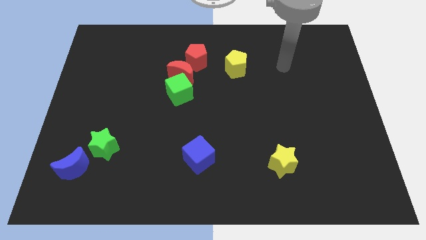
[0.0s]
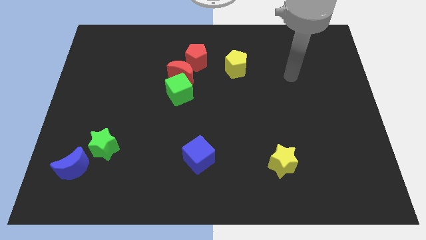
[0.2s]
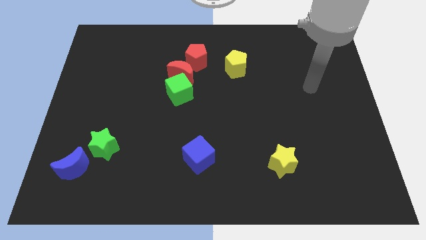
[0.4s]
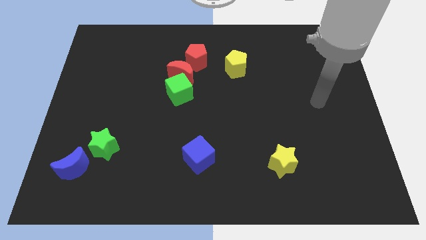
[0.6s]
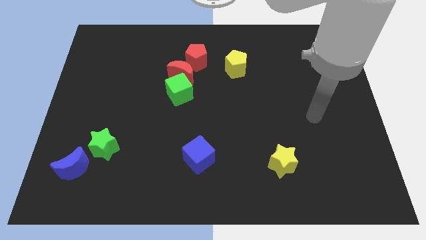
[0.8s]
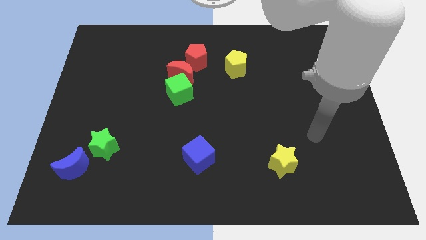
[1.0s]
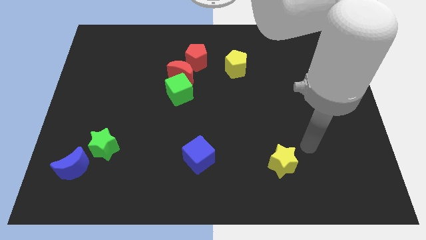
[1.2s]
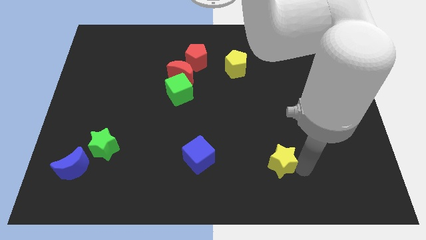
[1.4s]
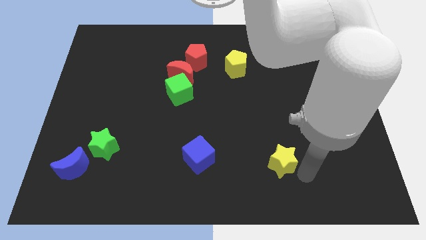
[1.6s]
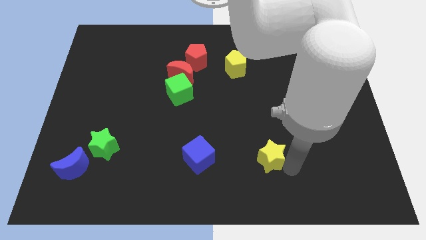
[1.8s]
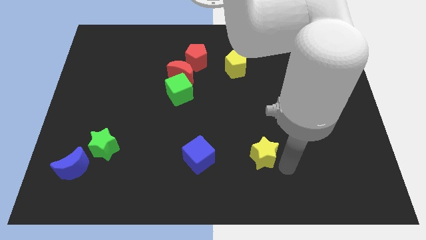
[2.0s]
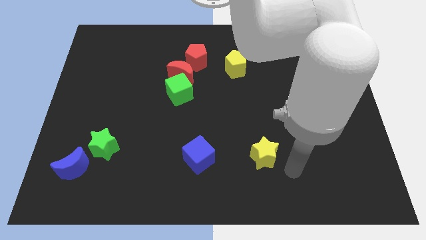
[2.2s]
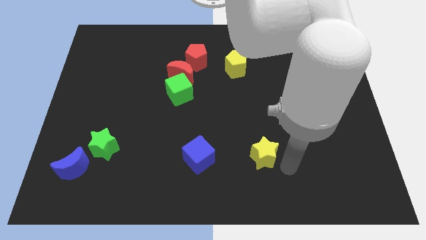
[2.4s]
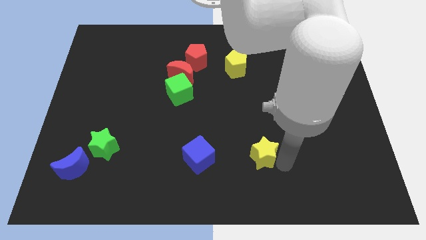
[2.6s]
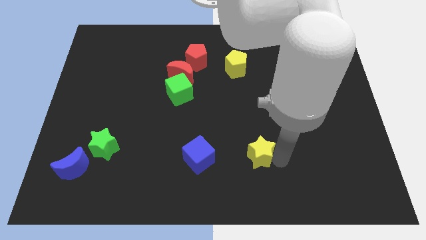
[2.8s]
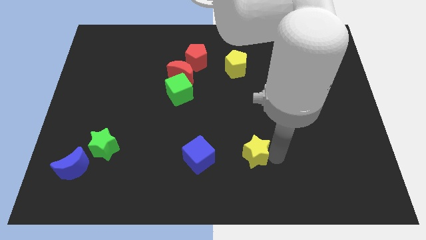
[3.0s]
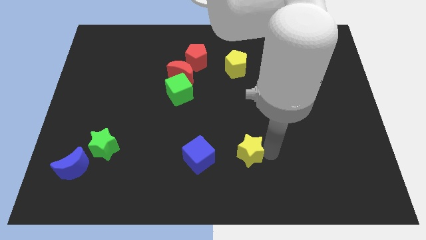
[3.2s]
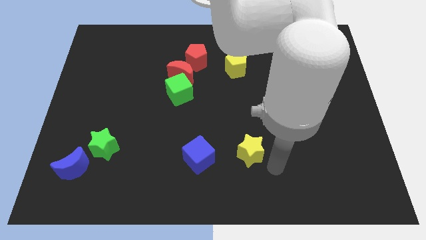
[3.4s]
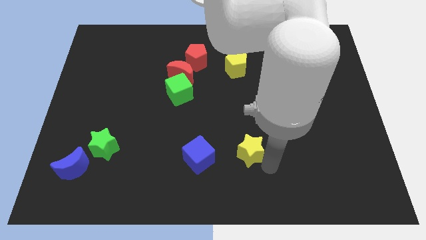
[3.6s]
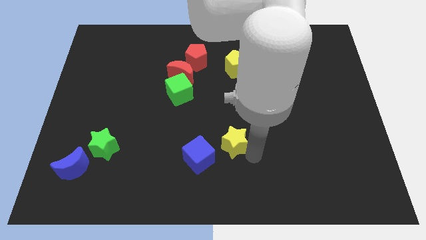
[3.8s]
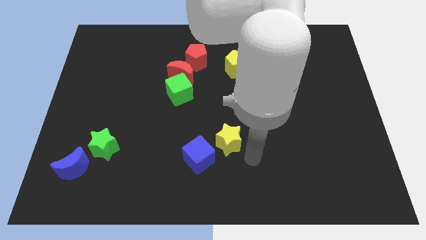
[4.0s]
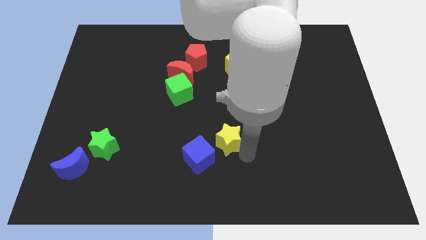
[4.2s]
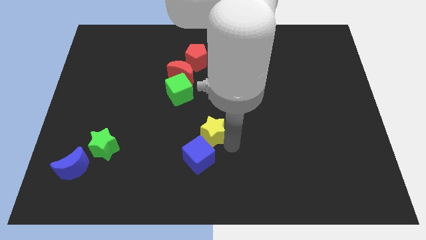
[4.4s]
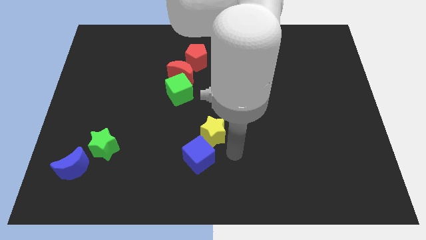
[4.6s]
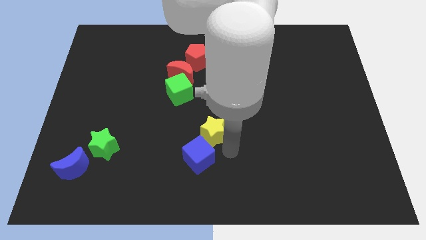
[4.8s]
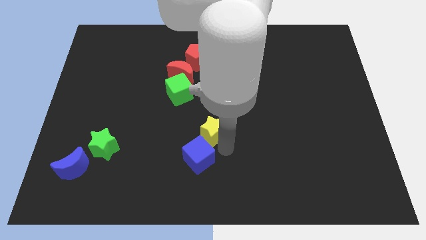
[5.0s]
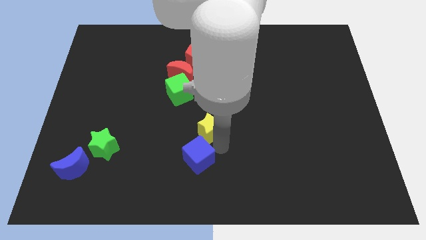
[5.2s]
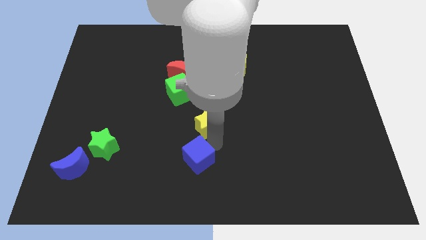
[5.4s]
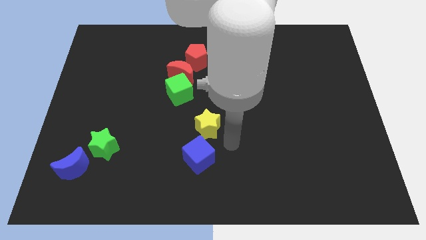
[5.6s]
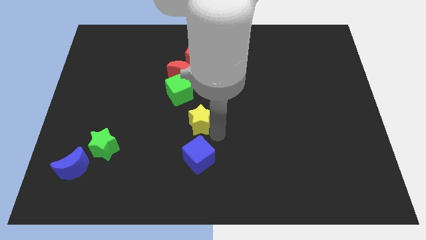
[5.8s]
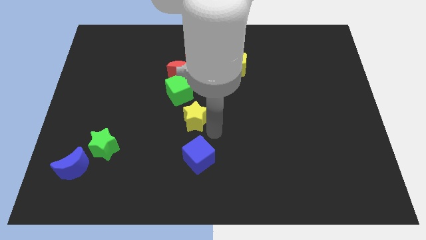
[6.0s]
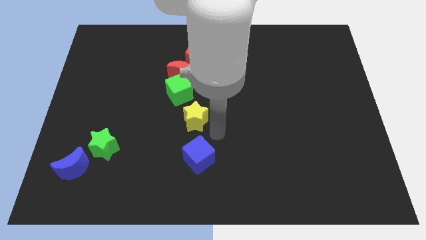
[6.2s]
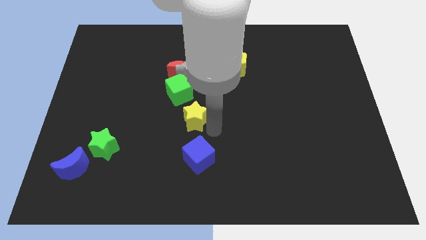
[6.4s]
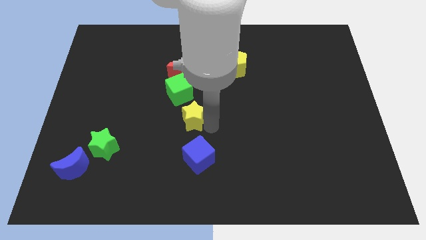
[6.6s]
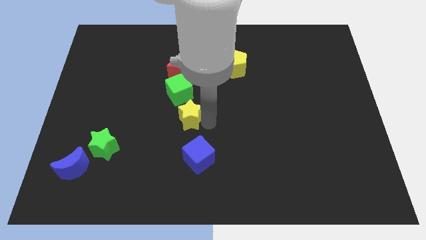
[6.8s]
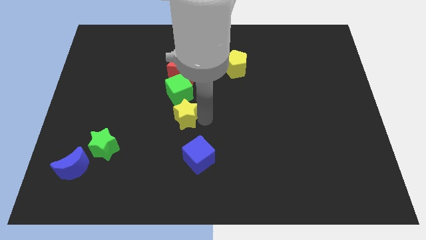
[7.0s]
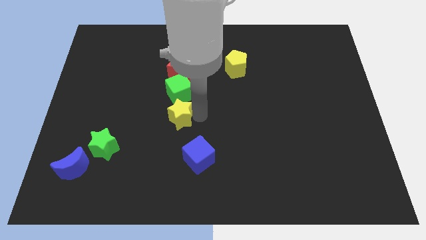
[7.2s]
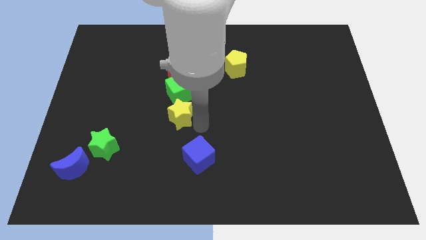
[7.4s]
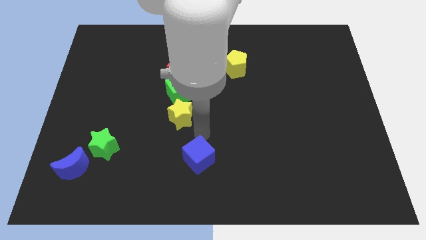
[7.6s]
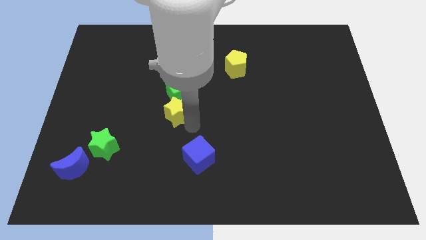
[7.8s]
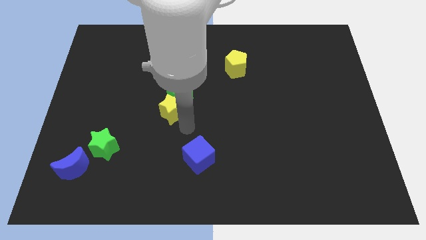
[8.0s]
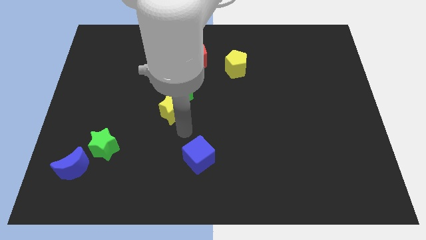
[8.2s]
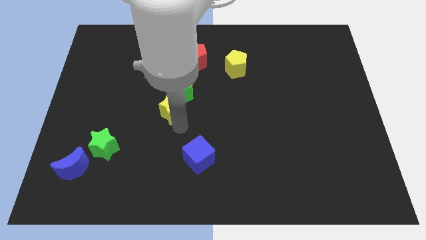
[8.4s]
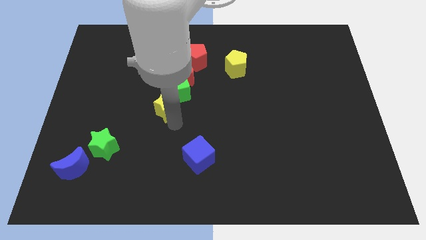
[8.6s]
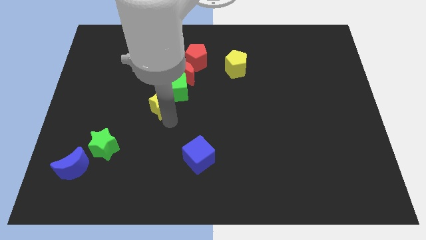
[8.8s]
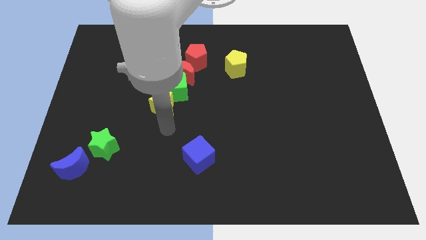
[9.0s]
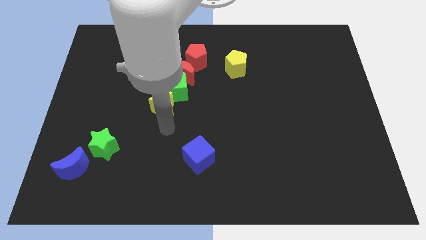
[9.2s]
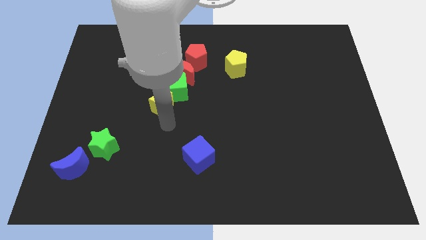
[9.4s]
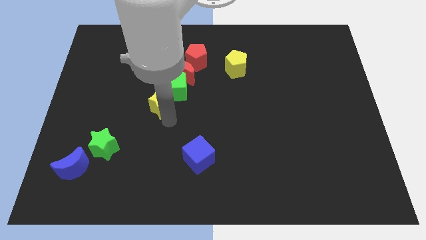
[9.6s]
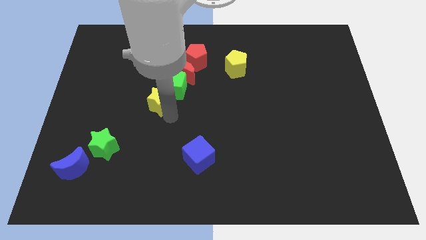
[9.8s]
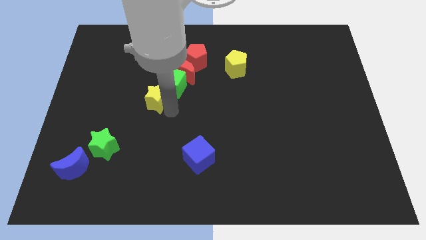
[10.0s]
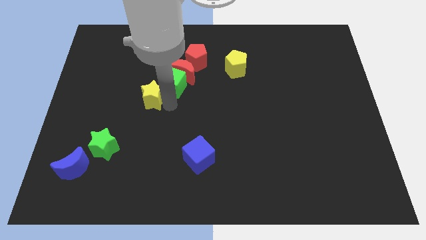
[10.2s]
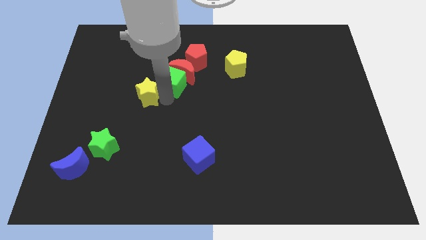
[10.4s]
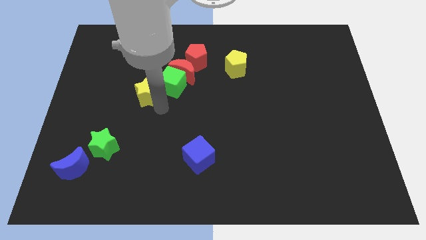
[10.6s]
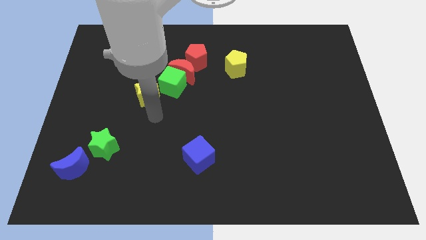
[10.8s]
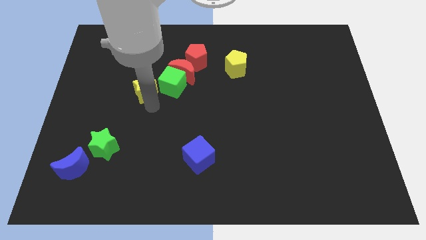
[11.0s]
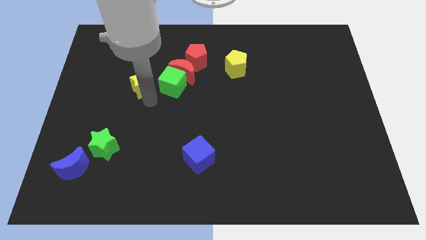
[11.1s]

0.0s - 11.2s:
move the yellow star to the left side of the red moon

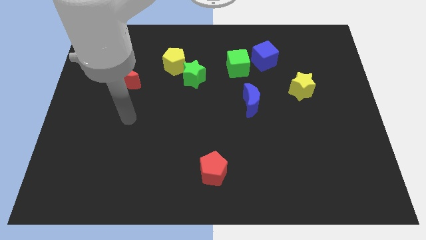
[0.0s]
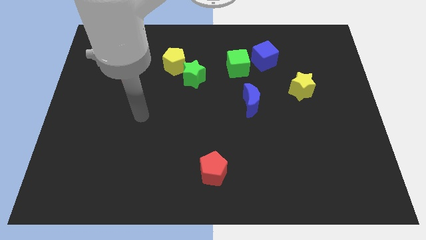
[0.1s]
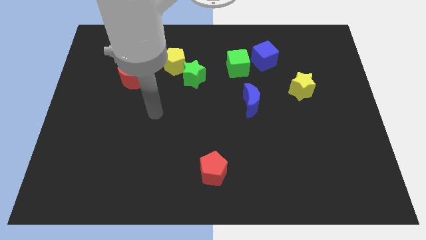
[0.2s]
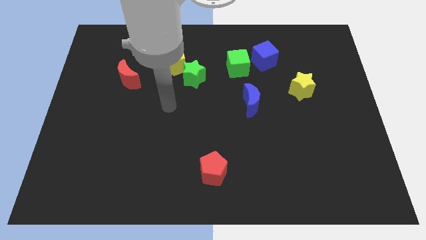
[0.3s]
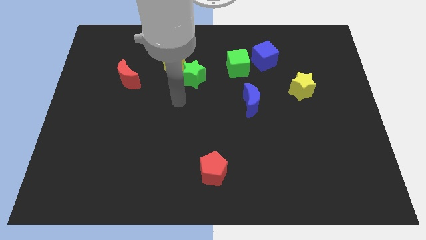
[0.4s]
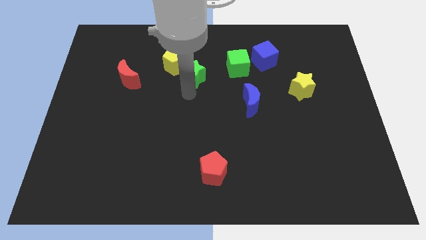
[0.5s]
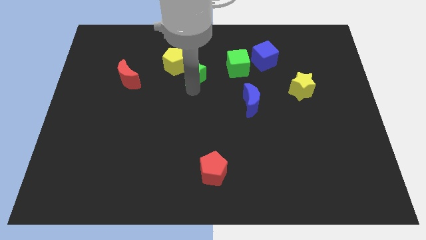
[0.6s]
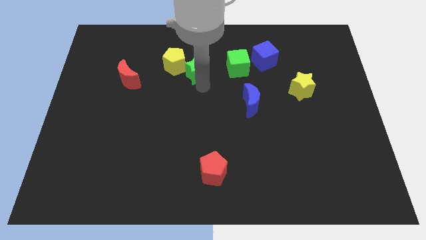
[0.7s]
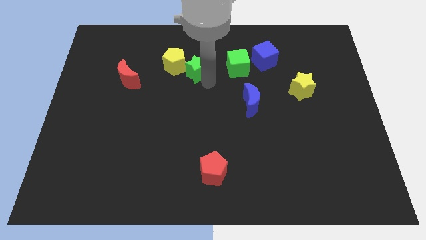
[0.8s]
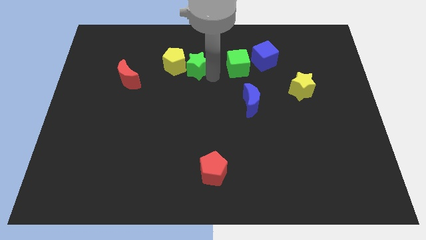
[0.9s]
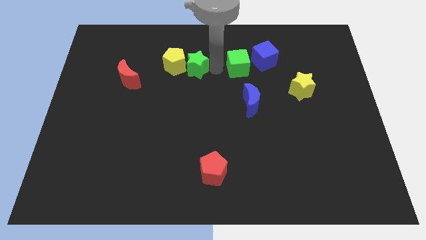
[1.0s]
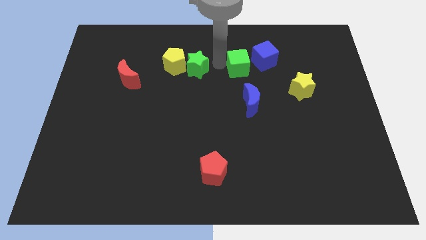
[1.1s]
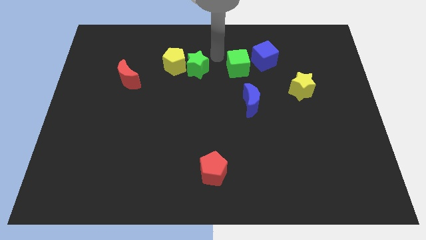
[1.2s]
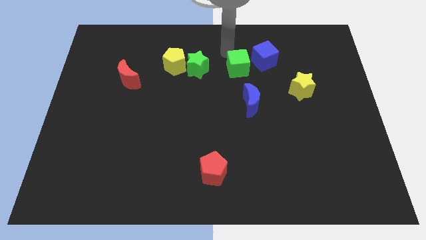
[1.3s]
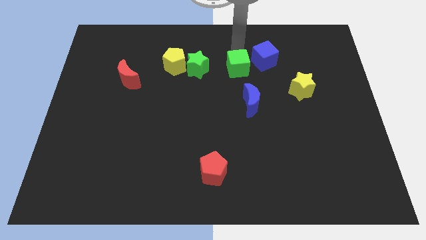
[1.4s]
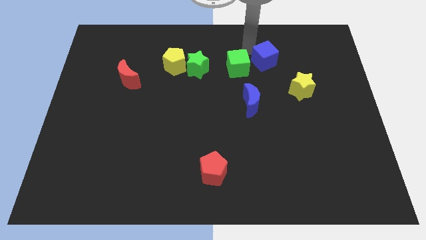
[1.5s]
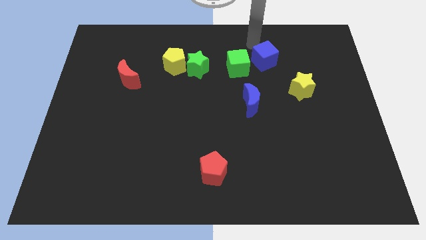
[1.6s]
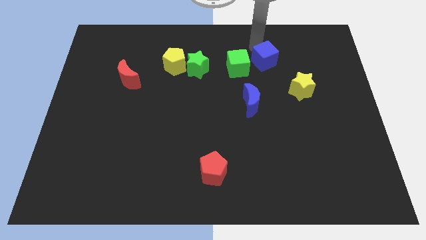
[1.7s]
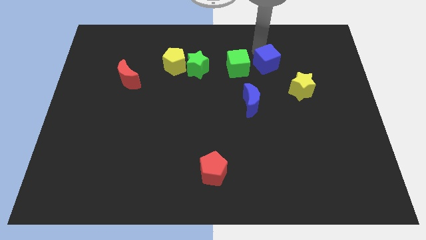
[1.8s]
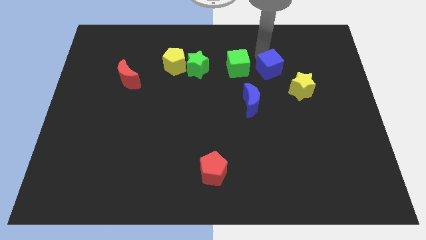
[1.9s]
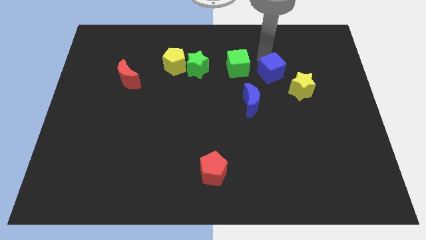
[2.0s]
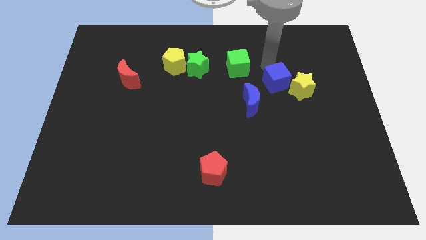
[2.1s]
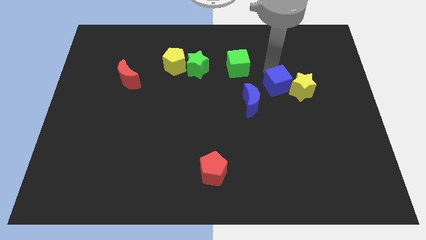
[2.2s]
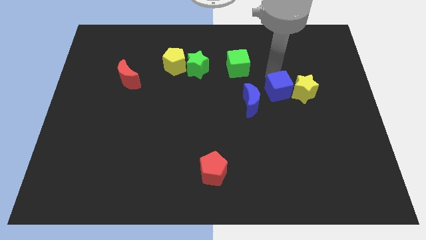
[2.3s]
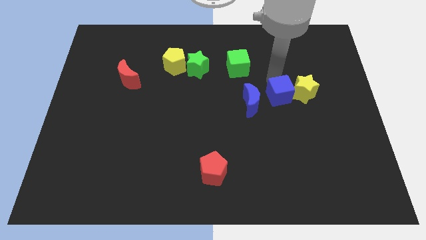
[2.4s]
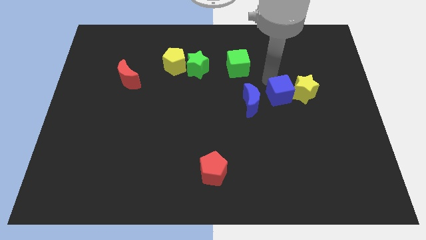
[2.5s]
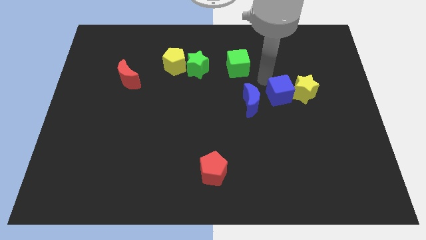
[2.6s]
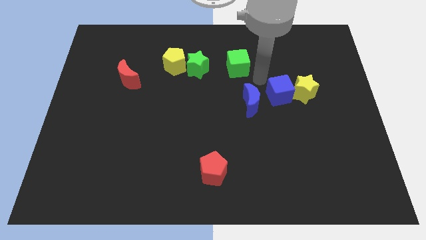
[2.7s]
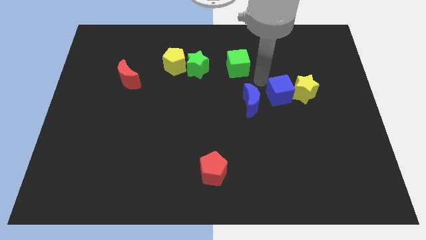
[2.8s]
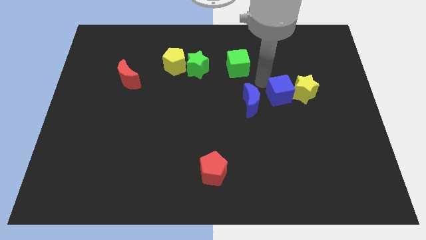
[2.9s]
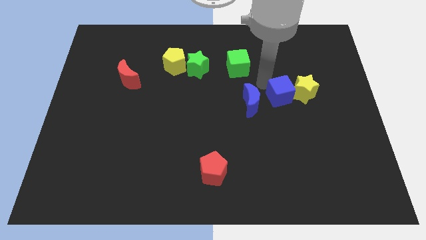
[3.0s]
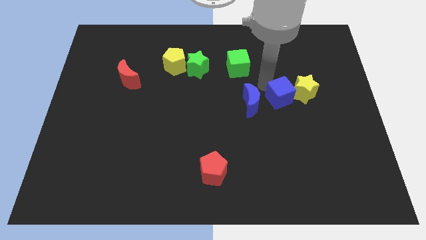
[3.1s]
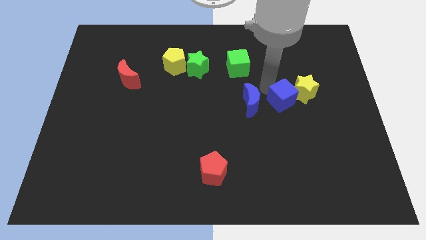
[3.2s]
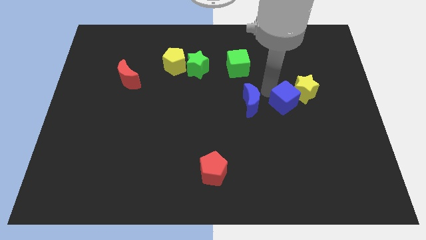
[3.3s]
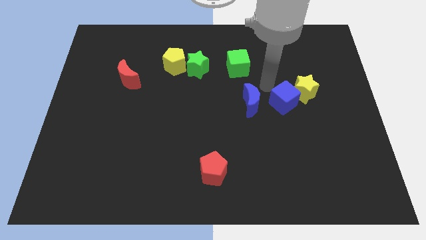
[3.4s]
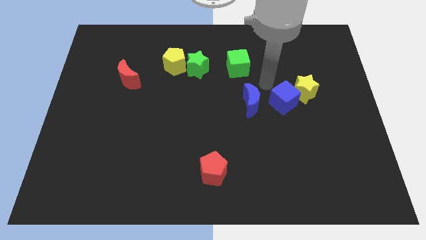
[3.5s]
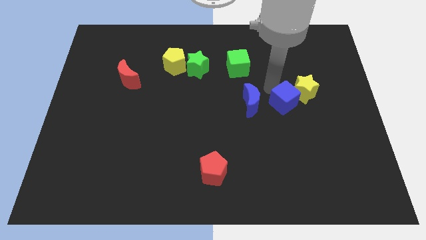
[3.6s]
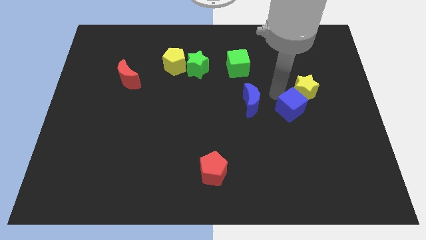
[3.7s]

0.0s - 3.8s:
push the blue cube to the bottom side of the yellow star
